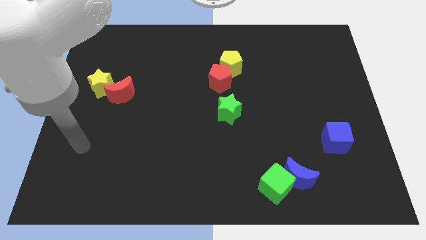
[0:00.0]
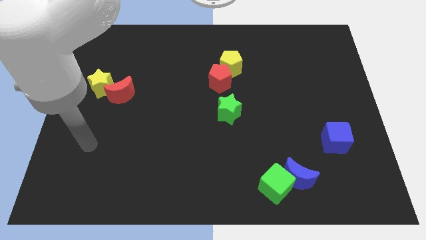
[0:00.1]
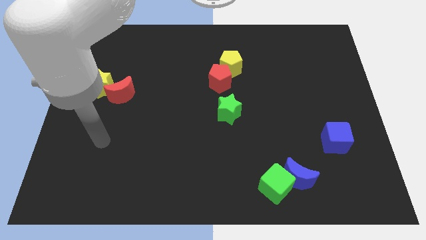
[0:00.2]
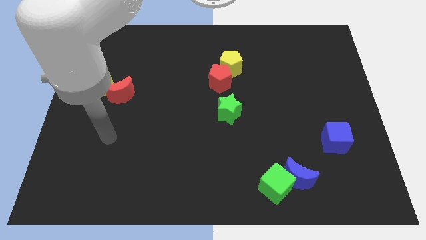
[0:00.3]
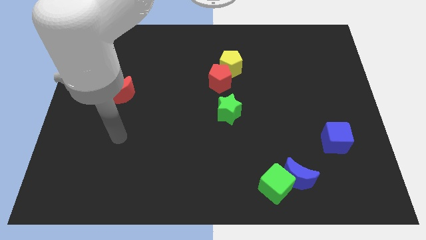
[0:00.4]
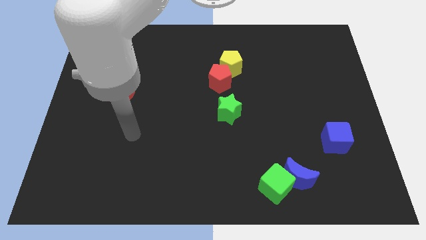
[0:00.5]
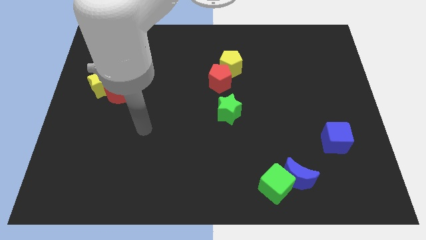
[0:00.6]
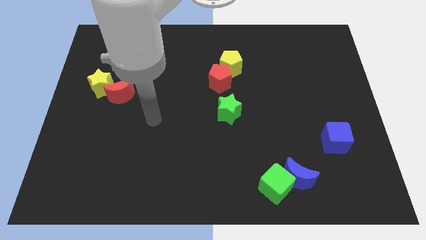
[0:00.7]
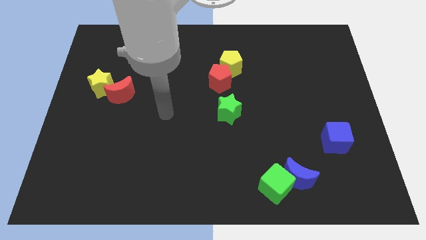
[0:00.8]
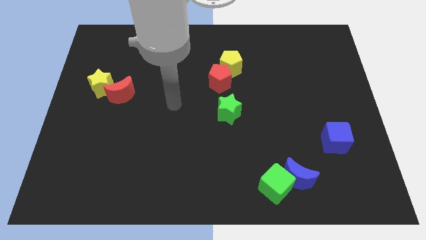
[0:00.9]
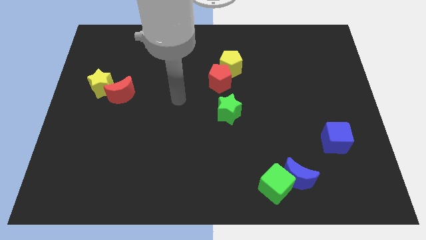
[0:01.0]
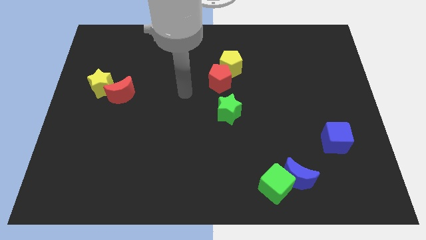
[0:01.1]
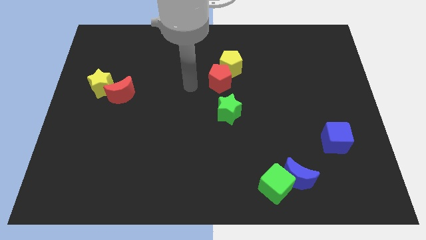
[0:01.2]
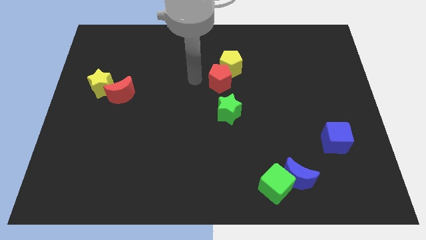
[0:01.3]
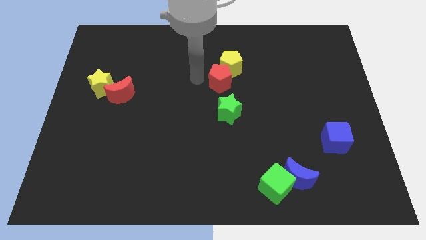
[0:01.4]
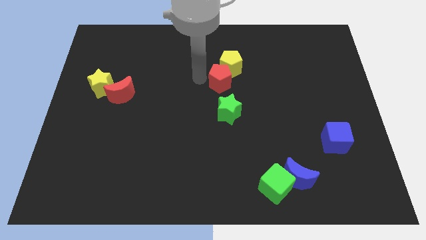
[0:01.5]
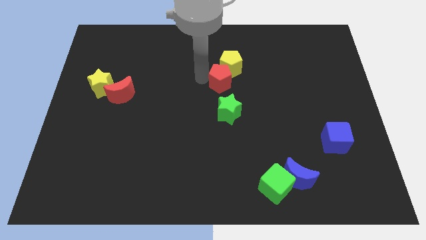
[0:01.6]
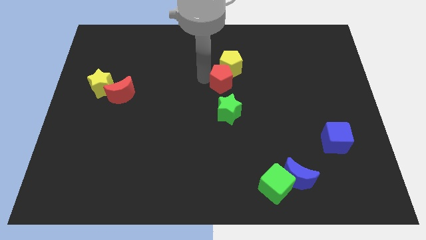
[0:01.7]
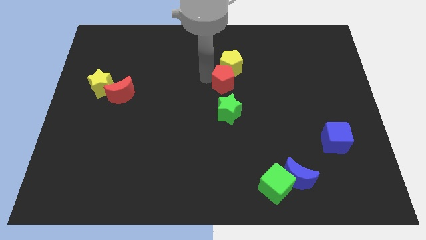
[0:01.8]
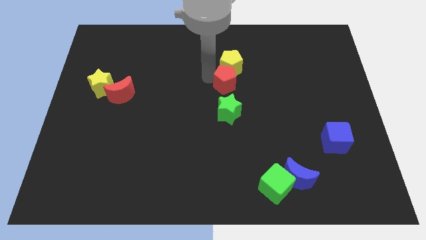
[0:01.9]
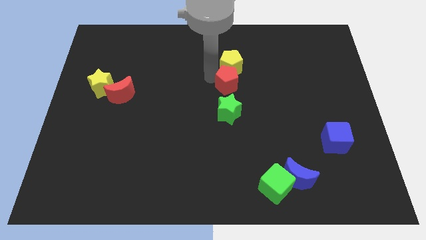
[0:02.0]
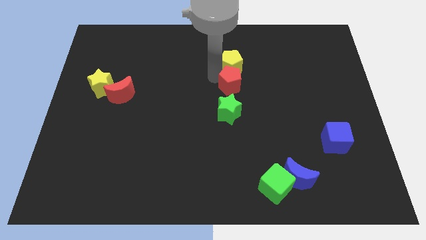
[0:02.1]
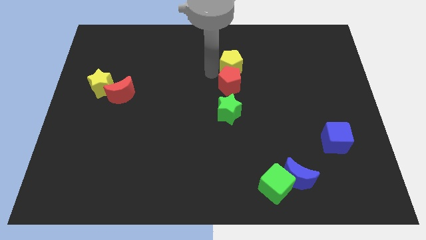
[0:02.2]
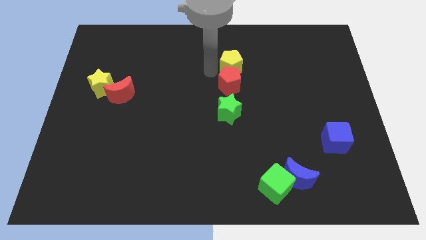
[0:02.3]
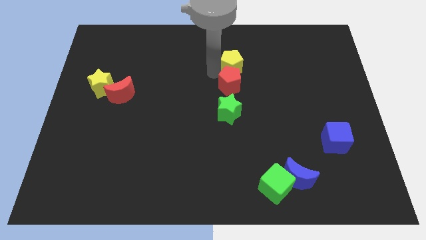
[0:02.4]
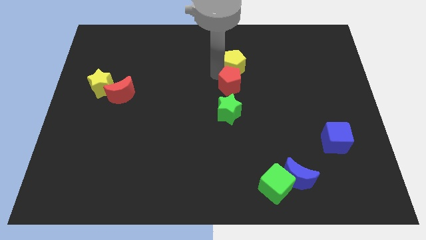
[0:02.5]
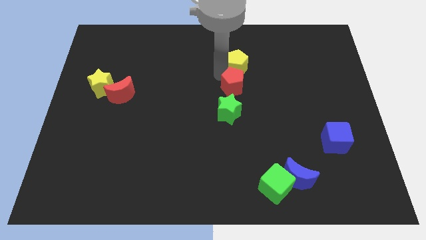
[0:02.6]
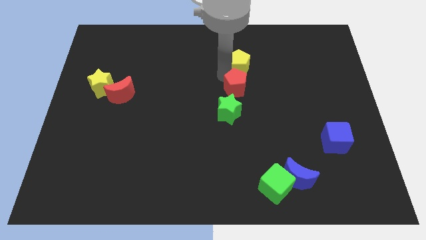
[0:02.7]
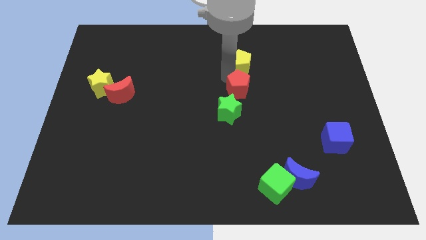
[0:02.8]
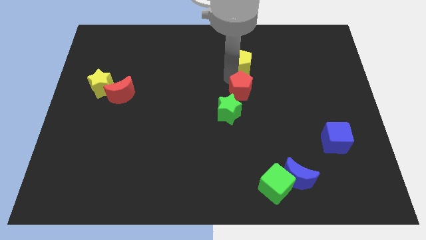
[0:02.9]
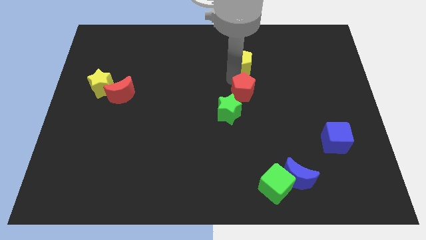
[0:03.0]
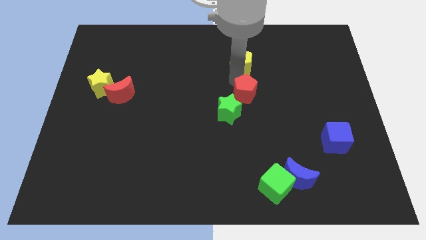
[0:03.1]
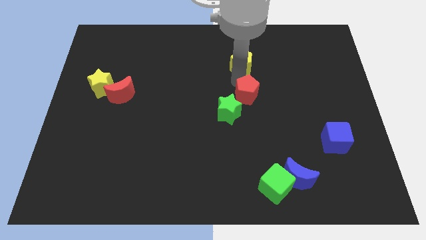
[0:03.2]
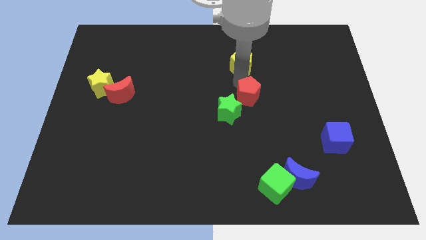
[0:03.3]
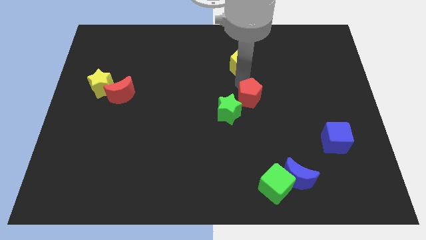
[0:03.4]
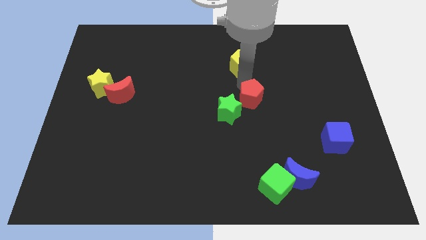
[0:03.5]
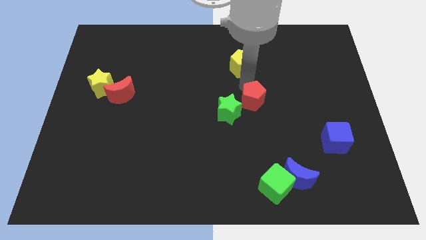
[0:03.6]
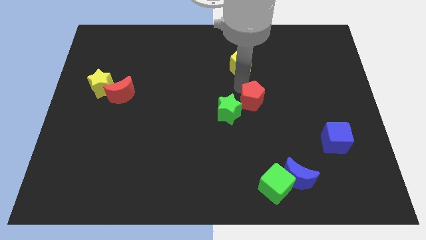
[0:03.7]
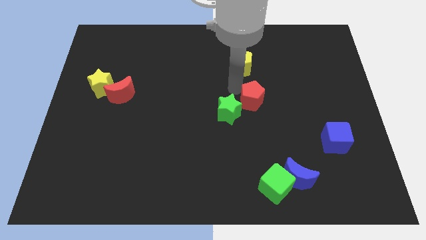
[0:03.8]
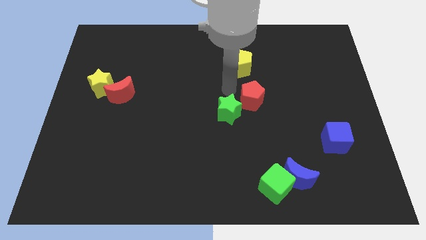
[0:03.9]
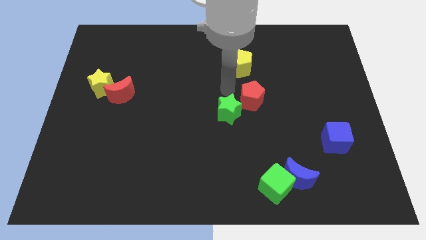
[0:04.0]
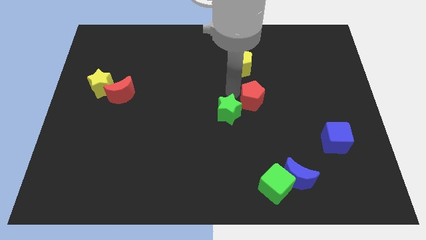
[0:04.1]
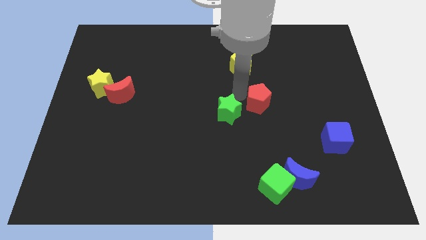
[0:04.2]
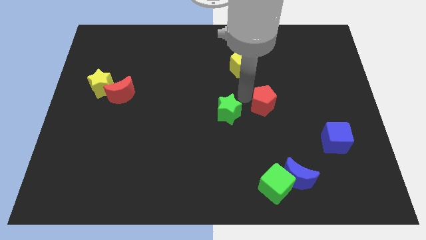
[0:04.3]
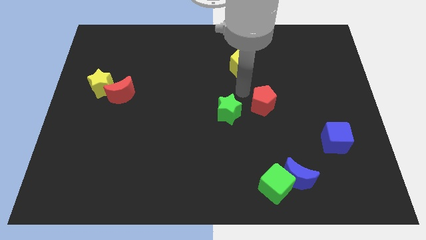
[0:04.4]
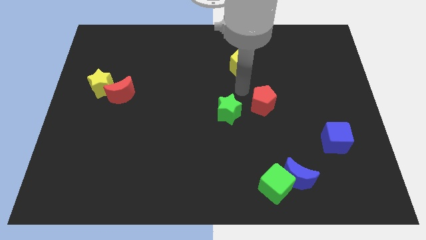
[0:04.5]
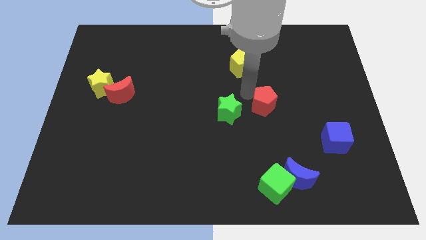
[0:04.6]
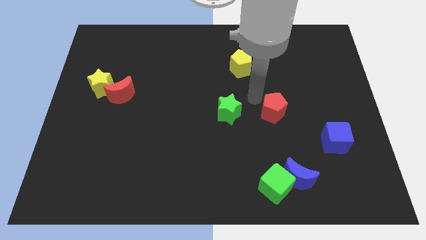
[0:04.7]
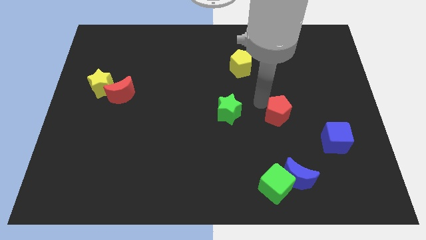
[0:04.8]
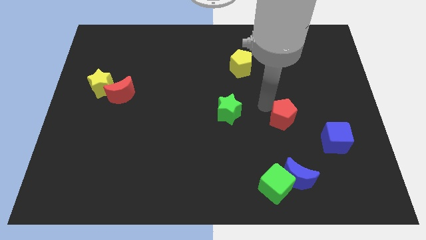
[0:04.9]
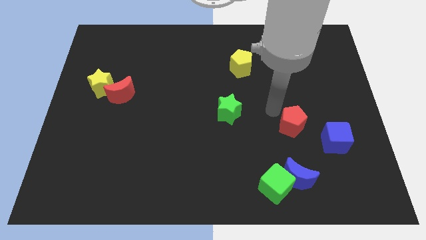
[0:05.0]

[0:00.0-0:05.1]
push the red pentagon downwards and right

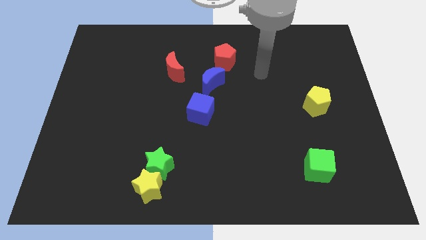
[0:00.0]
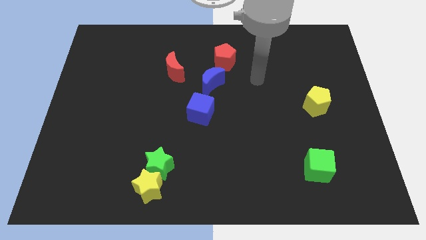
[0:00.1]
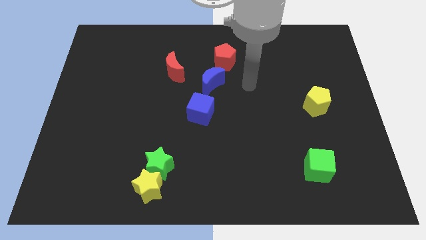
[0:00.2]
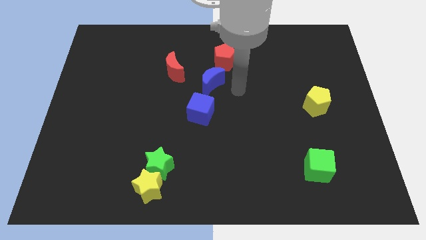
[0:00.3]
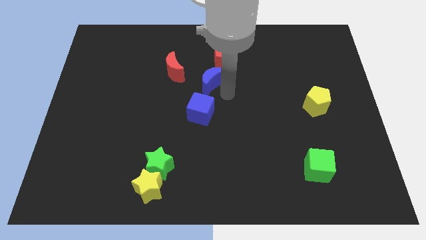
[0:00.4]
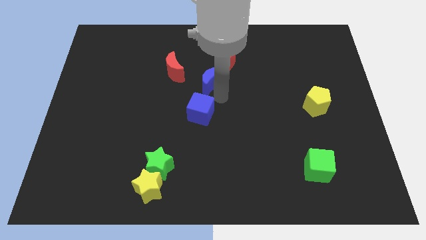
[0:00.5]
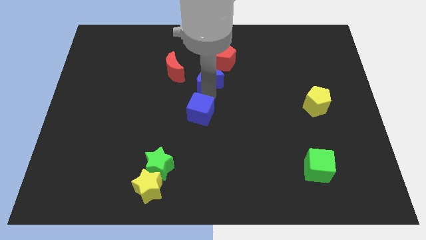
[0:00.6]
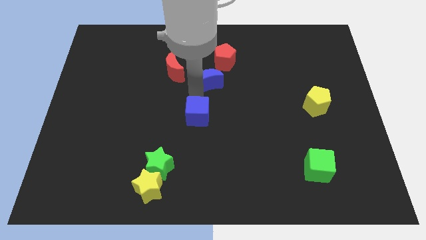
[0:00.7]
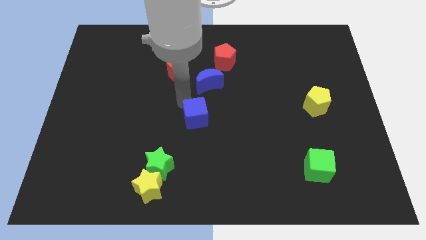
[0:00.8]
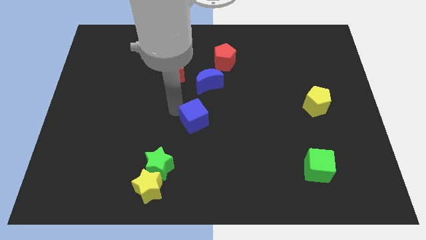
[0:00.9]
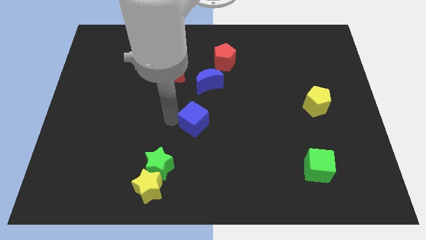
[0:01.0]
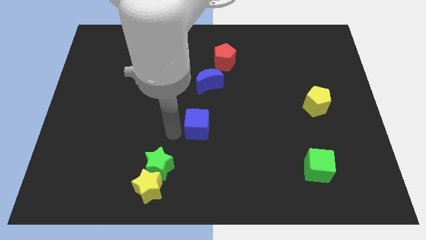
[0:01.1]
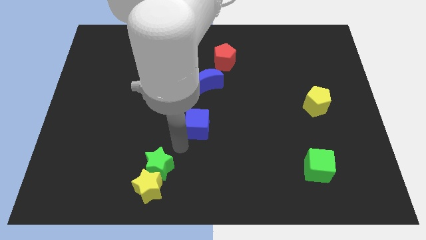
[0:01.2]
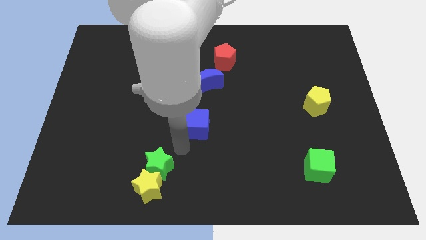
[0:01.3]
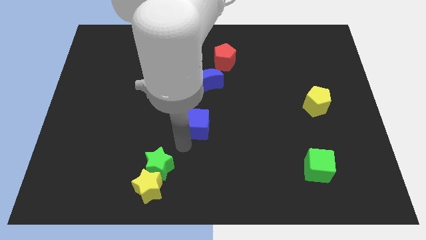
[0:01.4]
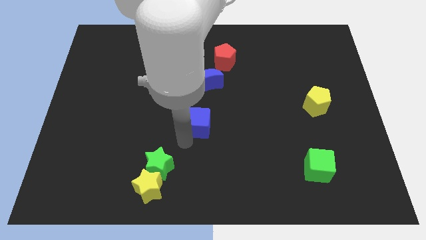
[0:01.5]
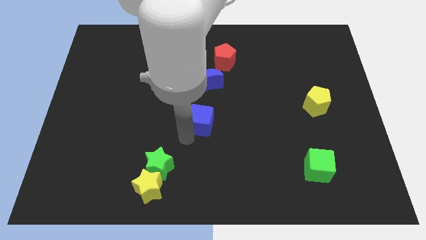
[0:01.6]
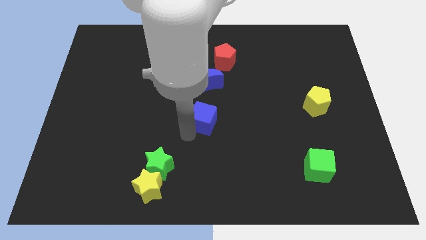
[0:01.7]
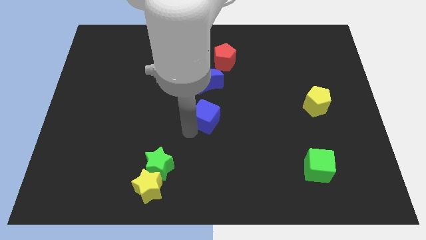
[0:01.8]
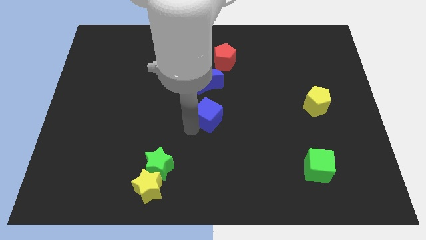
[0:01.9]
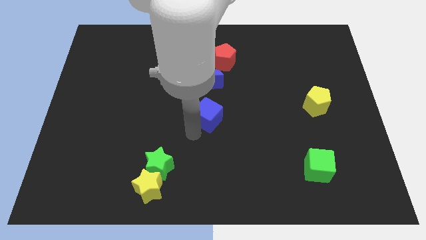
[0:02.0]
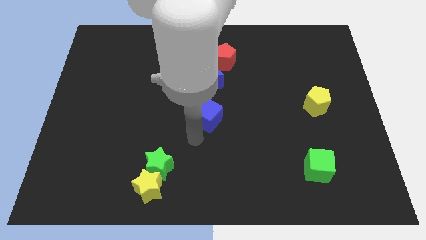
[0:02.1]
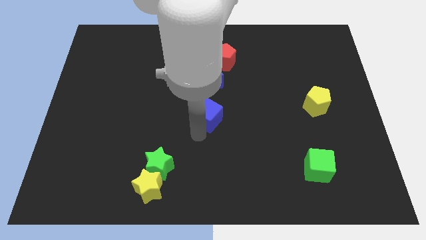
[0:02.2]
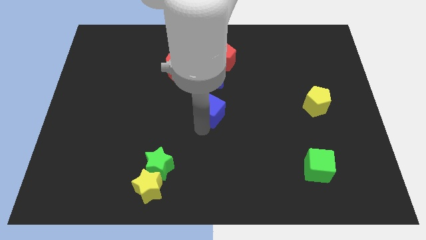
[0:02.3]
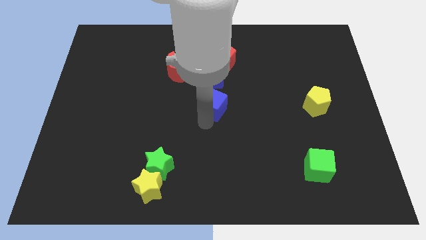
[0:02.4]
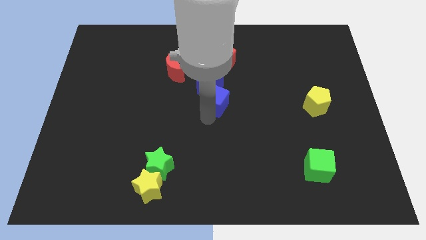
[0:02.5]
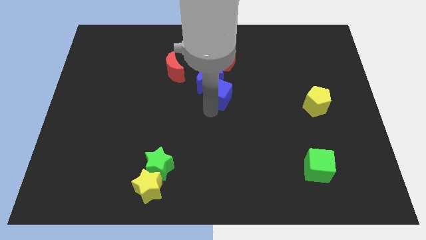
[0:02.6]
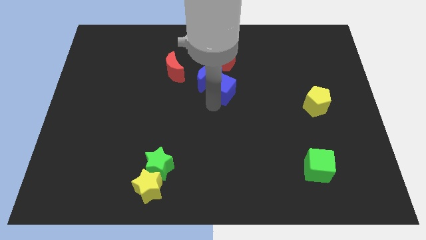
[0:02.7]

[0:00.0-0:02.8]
move the blue cube up and right diagonally a bit

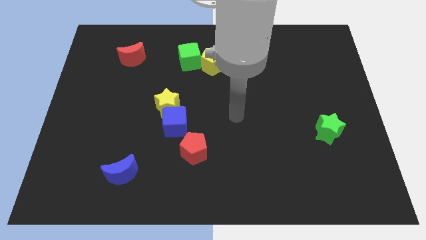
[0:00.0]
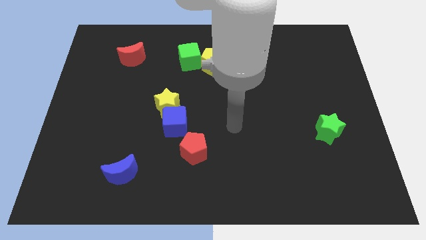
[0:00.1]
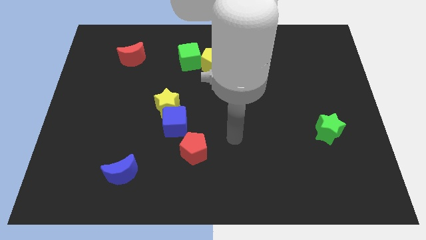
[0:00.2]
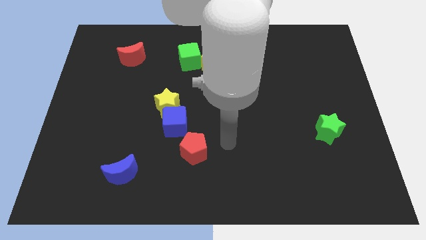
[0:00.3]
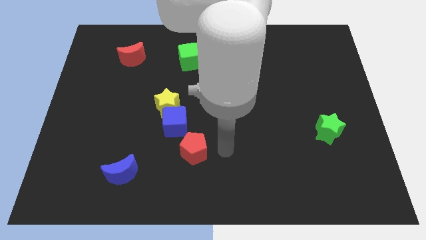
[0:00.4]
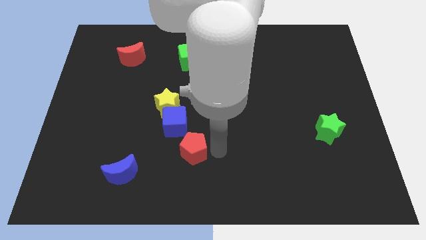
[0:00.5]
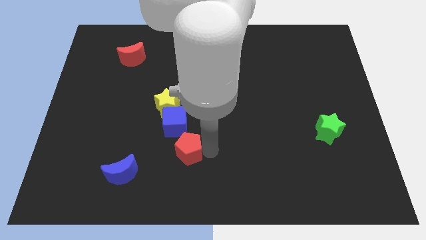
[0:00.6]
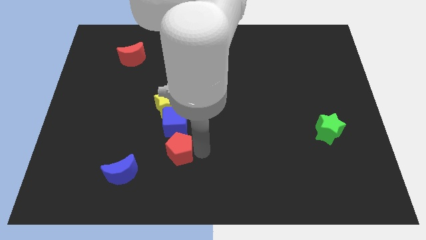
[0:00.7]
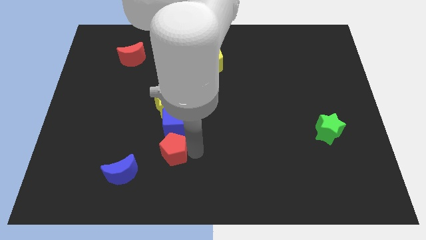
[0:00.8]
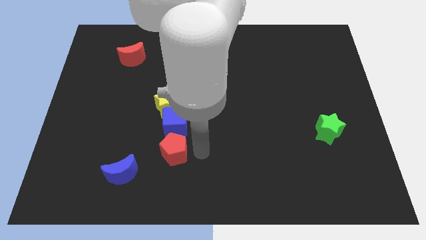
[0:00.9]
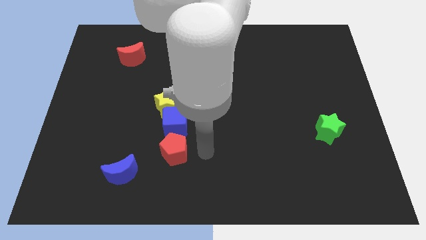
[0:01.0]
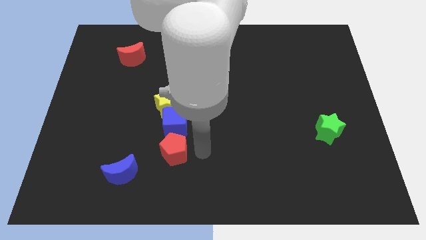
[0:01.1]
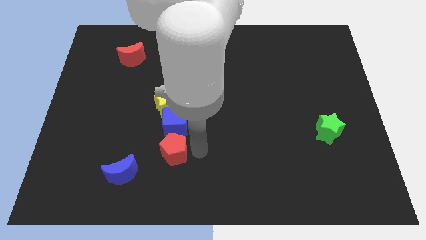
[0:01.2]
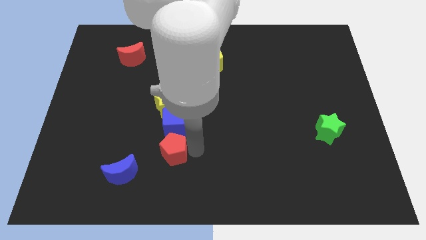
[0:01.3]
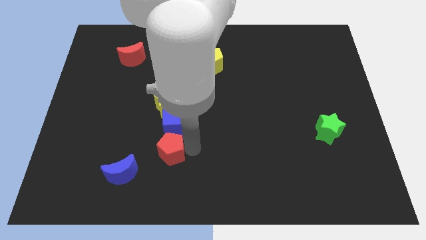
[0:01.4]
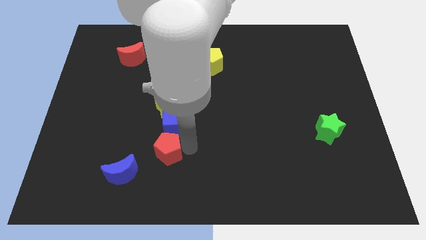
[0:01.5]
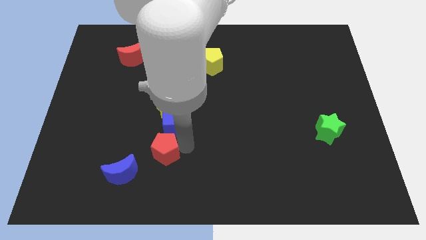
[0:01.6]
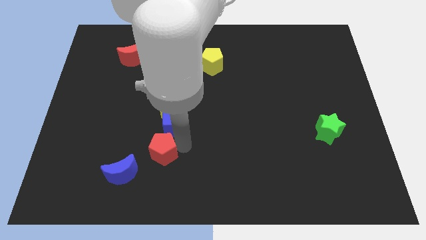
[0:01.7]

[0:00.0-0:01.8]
slide the red pentagon to the left somewhat
